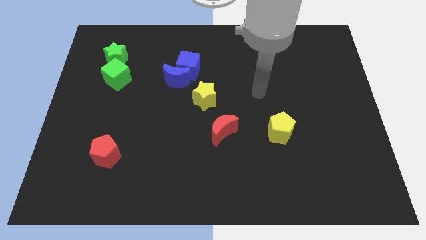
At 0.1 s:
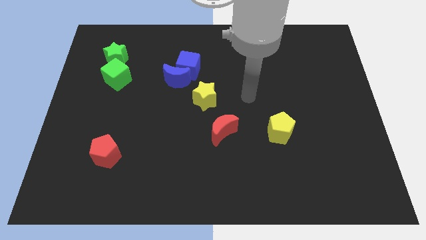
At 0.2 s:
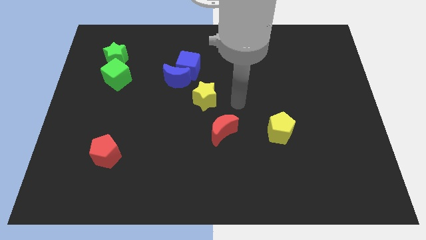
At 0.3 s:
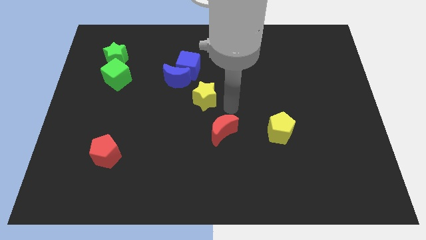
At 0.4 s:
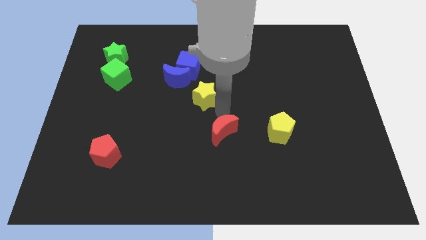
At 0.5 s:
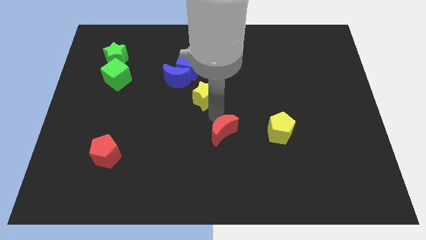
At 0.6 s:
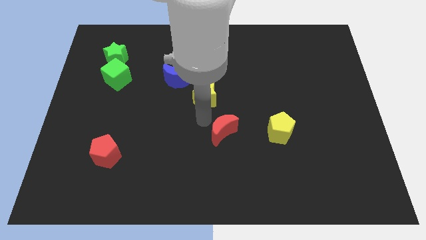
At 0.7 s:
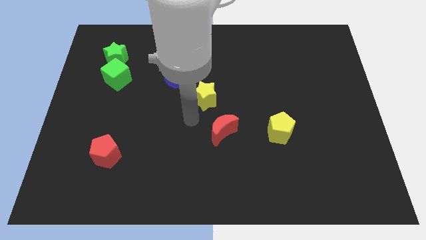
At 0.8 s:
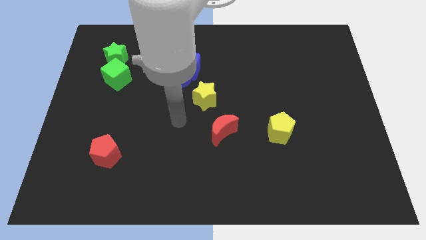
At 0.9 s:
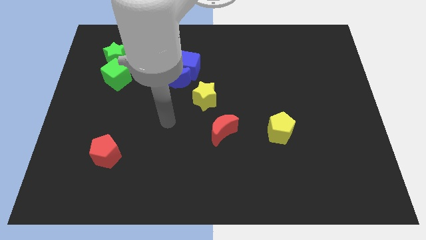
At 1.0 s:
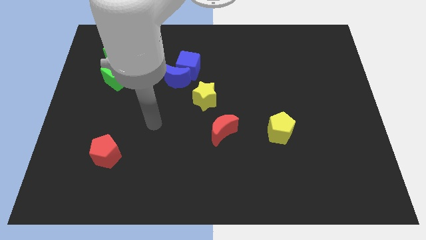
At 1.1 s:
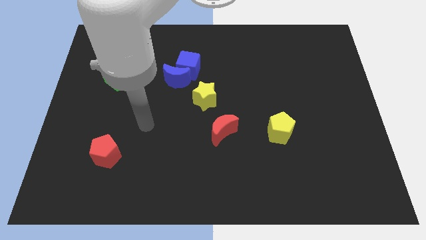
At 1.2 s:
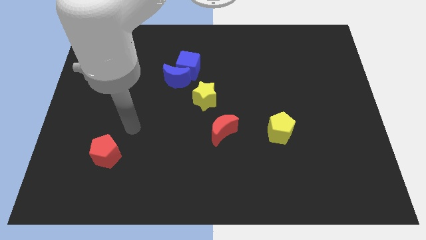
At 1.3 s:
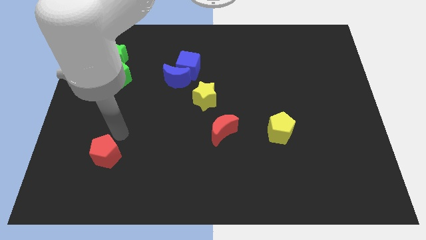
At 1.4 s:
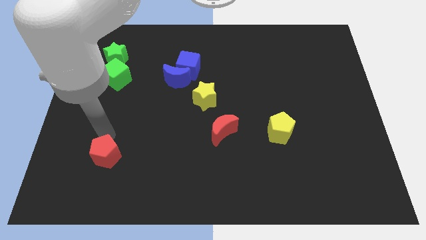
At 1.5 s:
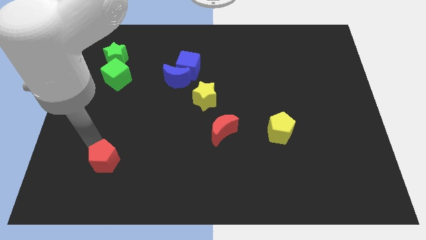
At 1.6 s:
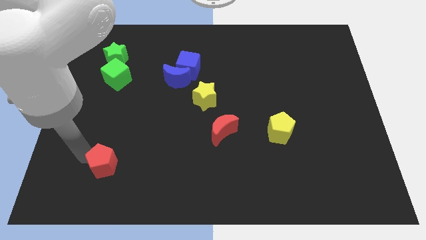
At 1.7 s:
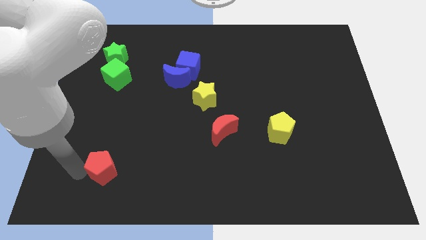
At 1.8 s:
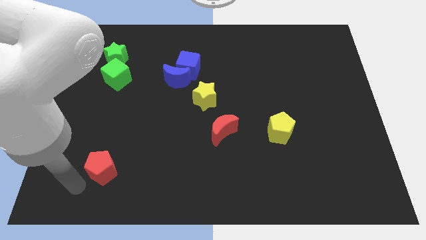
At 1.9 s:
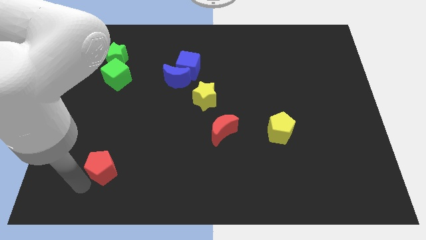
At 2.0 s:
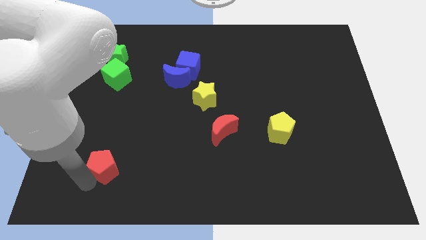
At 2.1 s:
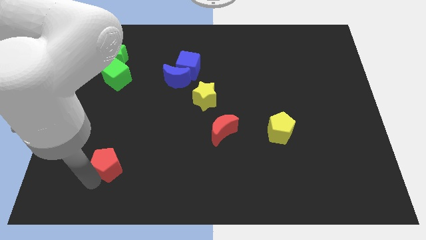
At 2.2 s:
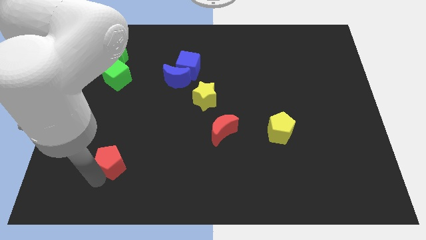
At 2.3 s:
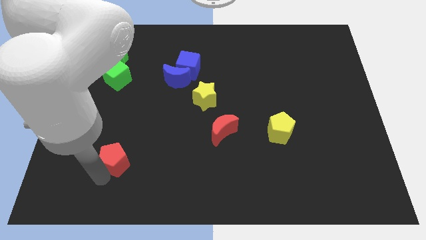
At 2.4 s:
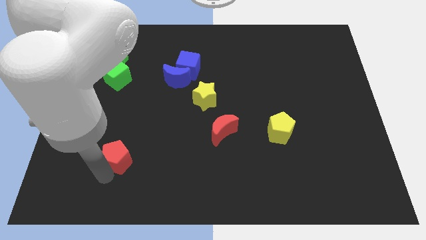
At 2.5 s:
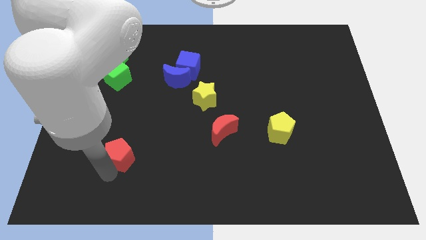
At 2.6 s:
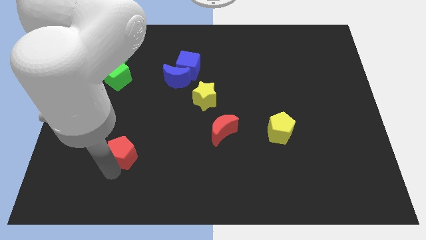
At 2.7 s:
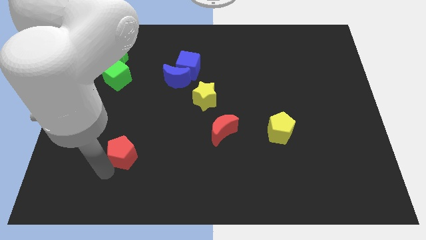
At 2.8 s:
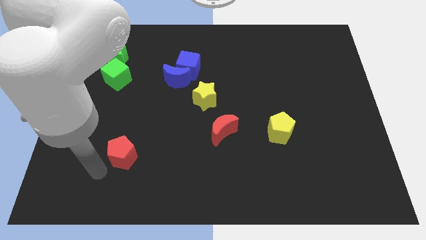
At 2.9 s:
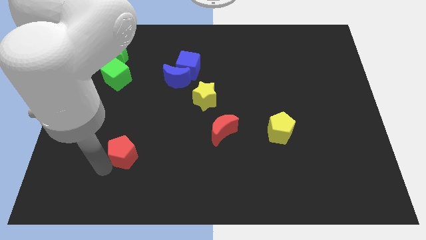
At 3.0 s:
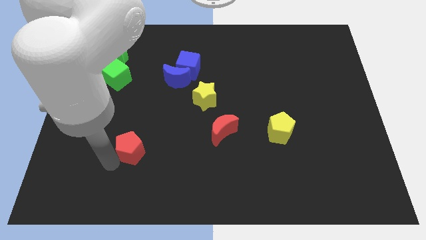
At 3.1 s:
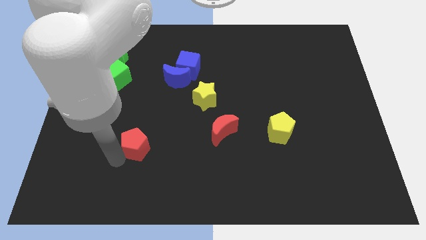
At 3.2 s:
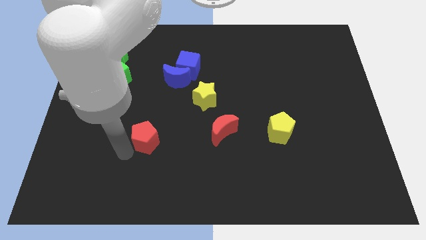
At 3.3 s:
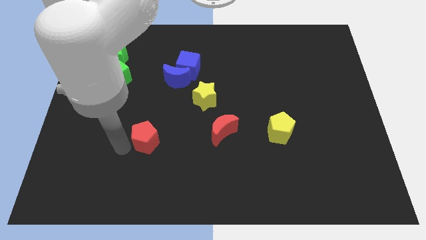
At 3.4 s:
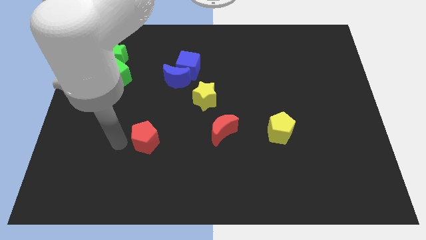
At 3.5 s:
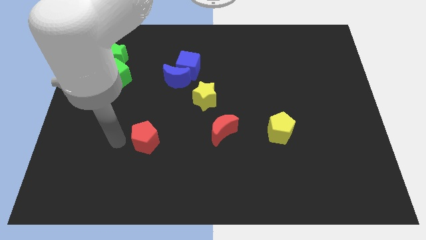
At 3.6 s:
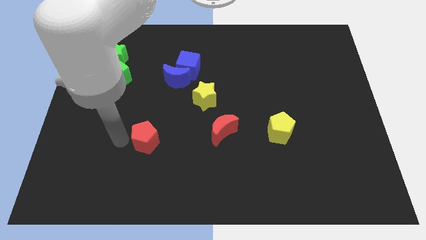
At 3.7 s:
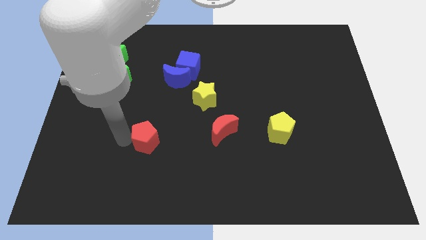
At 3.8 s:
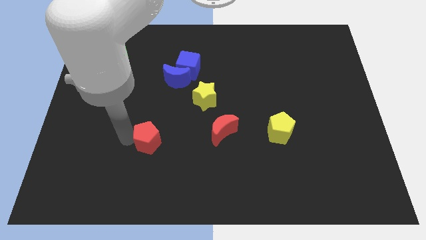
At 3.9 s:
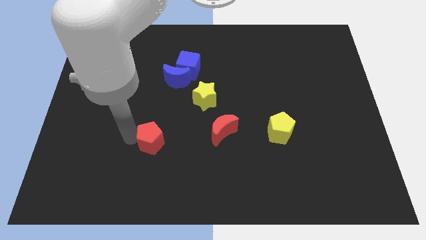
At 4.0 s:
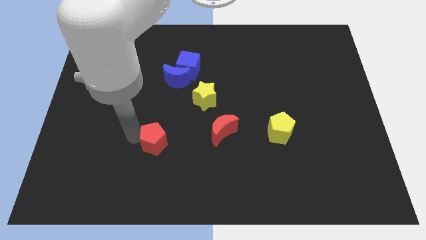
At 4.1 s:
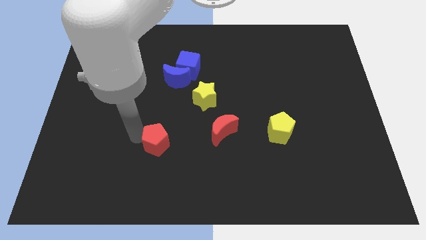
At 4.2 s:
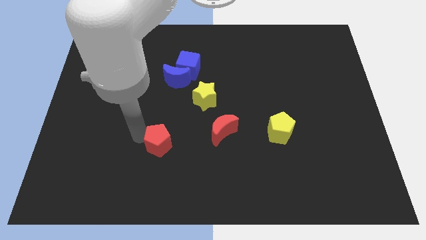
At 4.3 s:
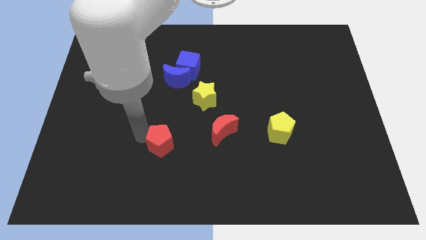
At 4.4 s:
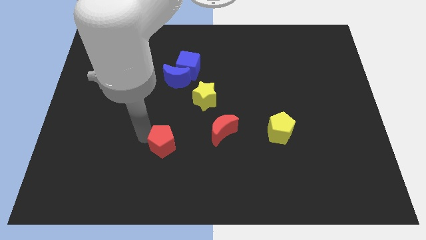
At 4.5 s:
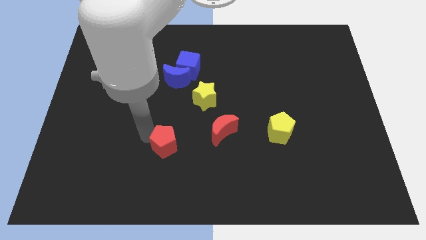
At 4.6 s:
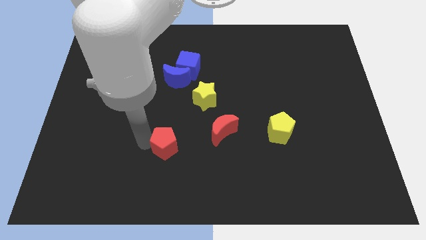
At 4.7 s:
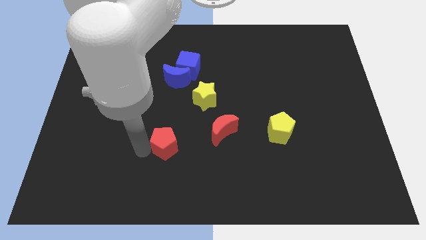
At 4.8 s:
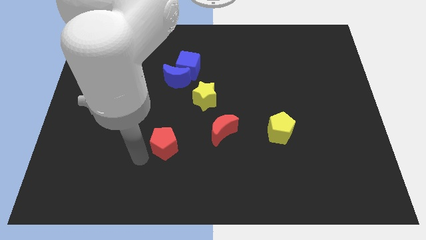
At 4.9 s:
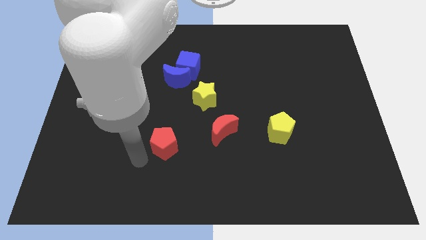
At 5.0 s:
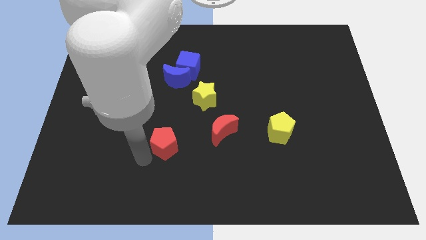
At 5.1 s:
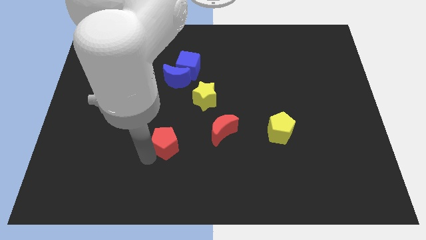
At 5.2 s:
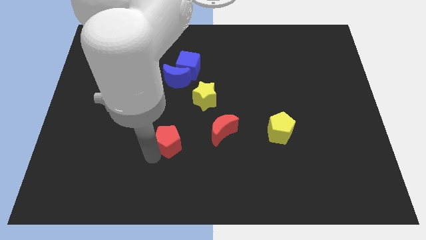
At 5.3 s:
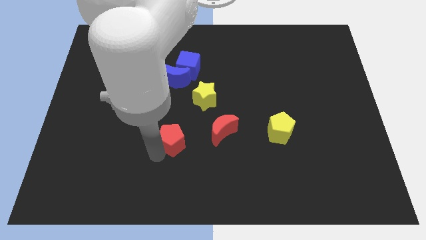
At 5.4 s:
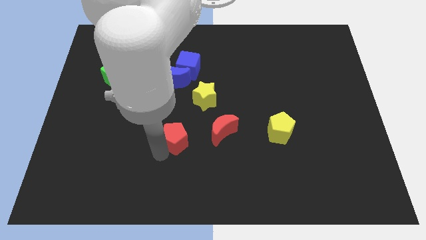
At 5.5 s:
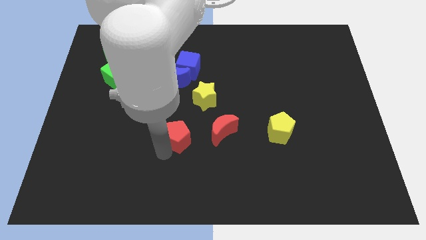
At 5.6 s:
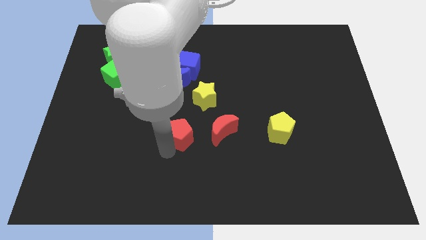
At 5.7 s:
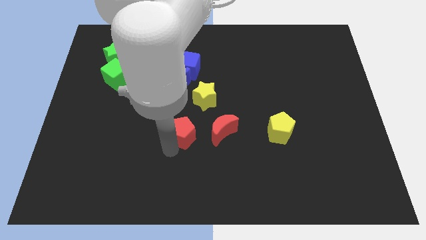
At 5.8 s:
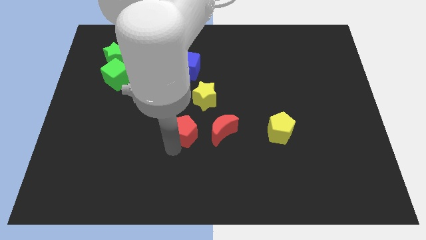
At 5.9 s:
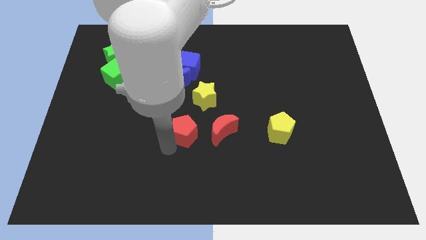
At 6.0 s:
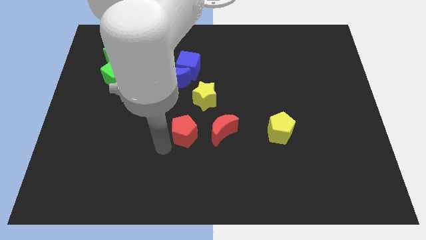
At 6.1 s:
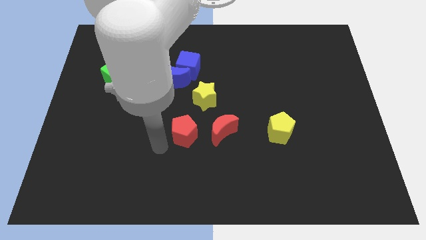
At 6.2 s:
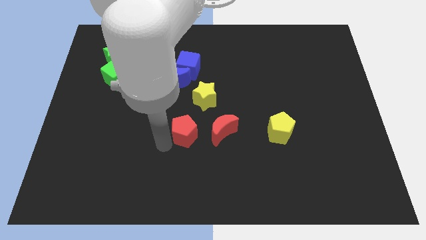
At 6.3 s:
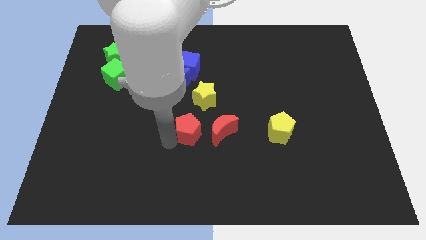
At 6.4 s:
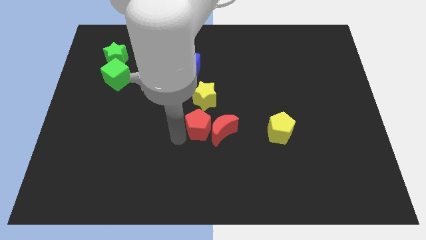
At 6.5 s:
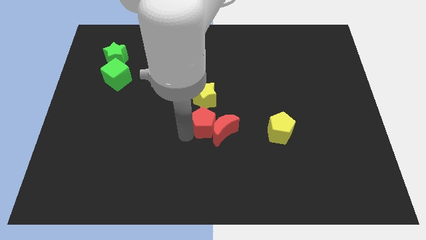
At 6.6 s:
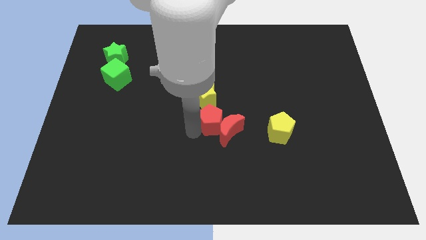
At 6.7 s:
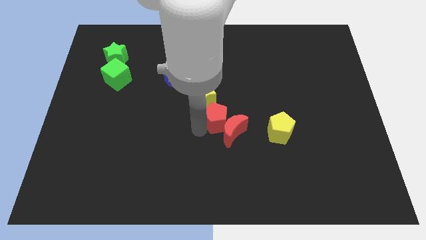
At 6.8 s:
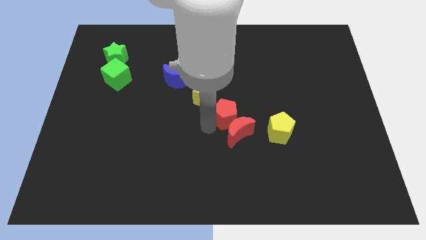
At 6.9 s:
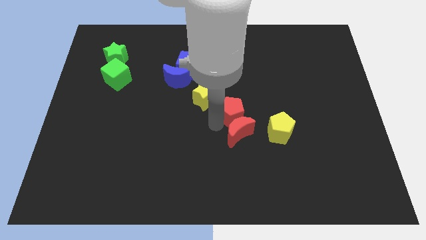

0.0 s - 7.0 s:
move the red pentagon upwards and then right

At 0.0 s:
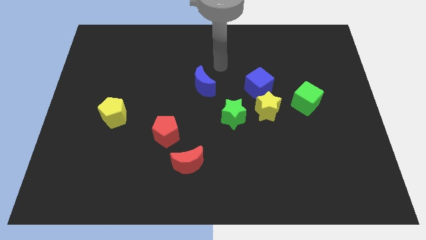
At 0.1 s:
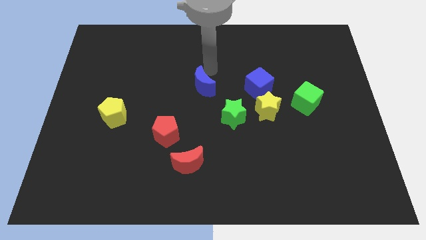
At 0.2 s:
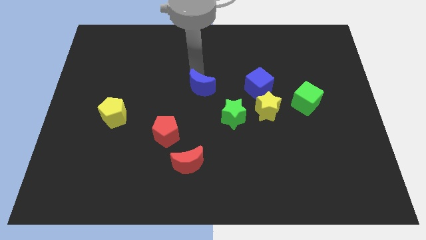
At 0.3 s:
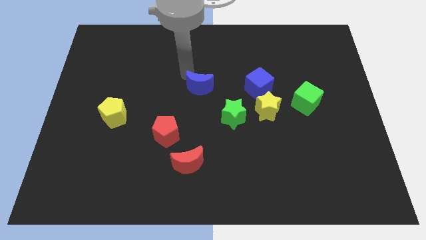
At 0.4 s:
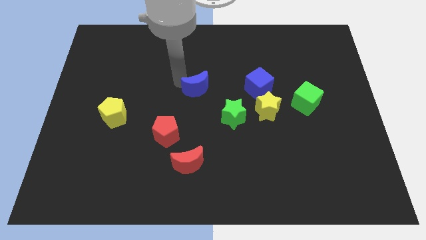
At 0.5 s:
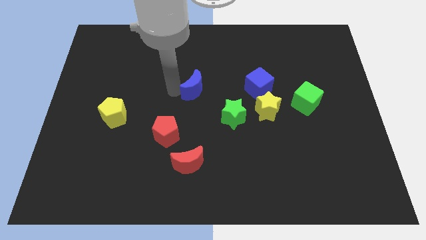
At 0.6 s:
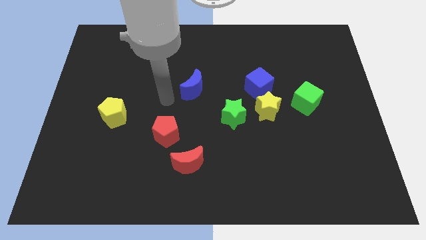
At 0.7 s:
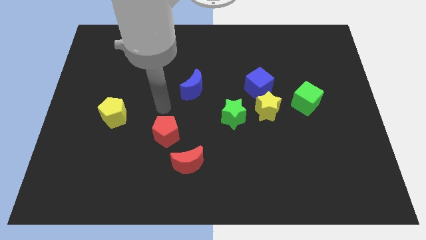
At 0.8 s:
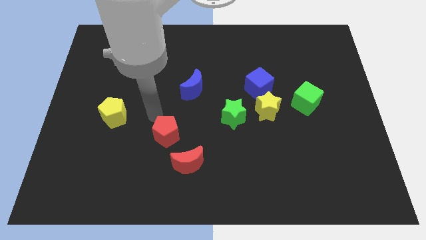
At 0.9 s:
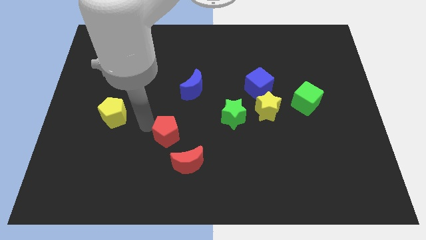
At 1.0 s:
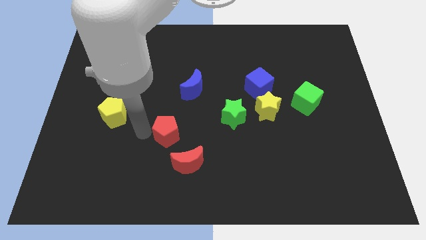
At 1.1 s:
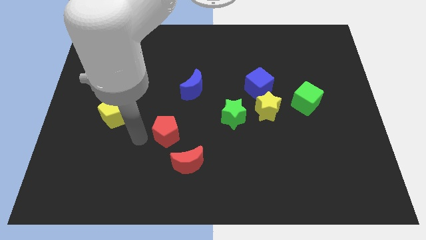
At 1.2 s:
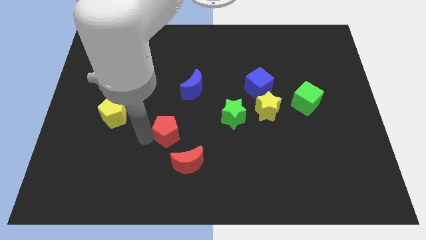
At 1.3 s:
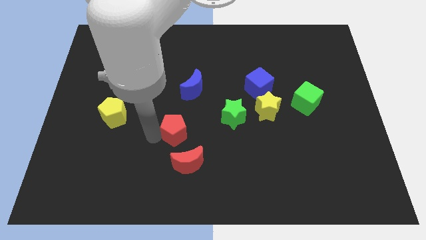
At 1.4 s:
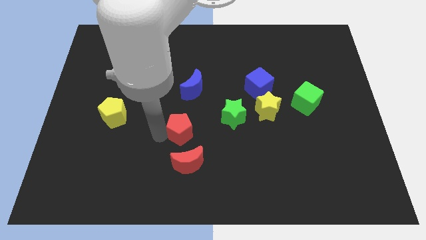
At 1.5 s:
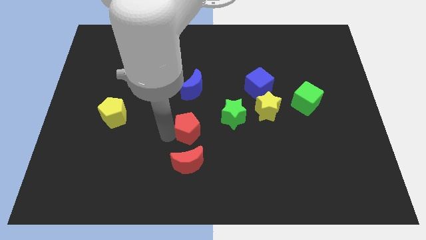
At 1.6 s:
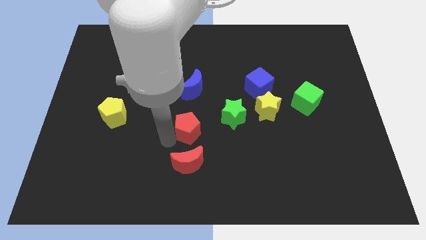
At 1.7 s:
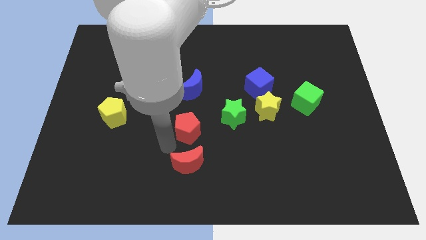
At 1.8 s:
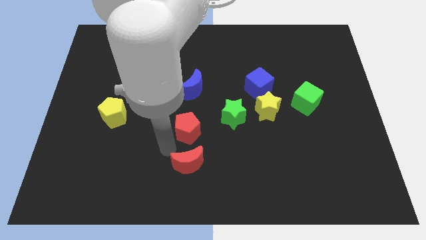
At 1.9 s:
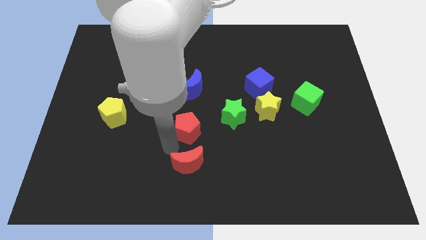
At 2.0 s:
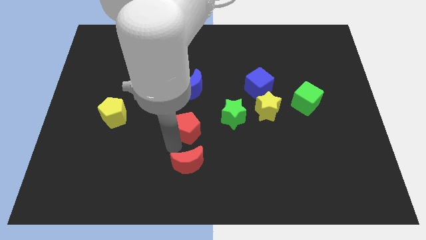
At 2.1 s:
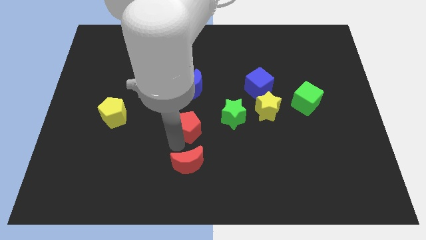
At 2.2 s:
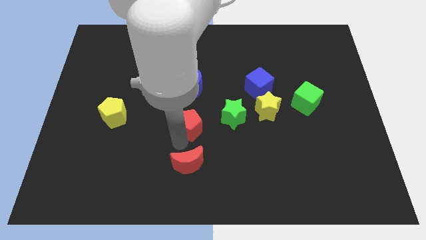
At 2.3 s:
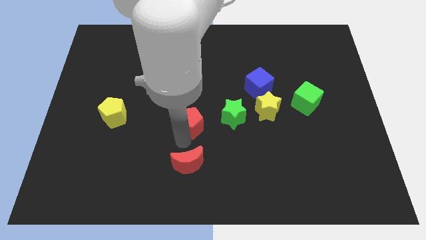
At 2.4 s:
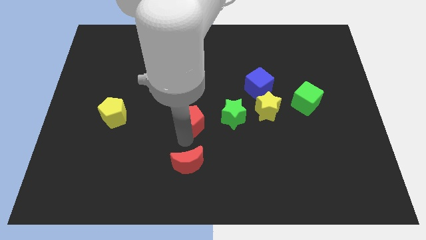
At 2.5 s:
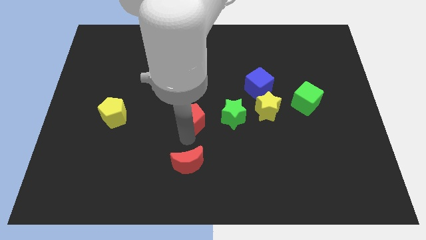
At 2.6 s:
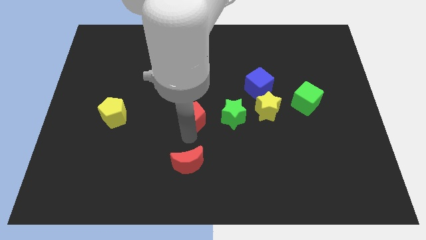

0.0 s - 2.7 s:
slightly slide the red pentagon upwards and right
